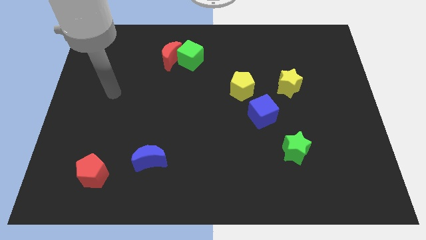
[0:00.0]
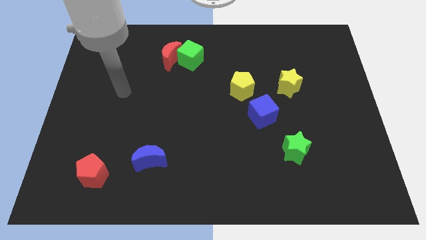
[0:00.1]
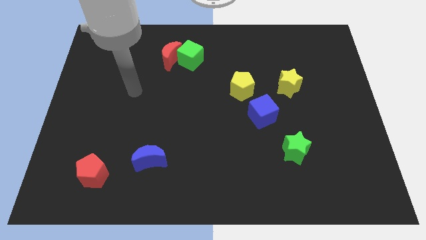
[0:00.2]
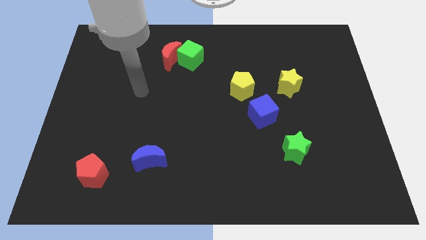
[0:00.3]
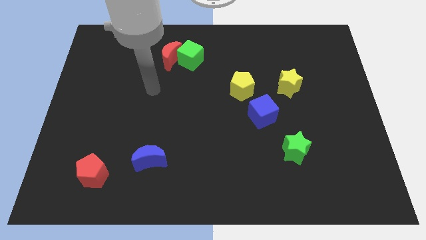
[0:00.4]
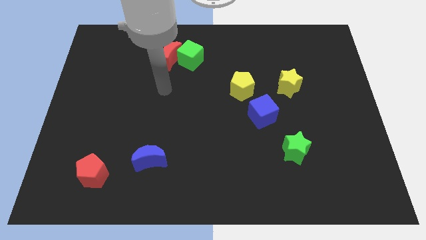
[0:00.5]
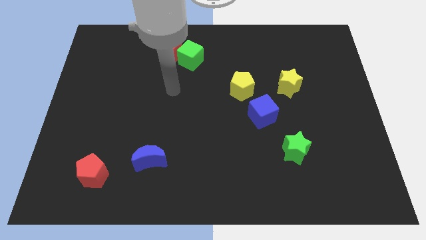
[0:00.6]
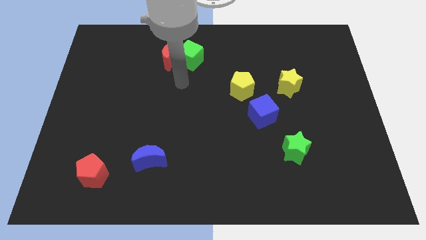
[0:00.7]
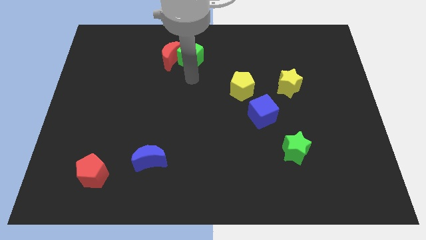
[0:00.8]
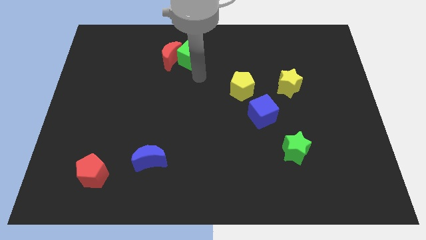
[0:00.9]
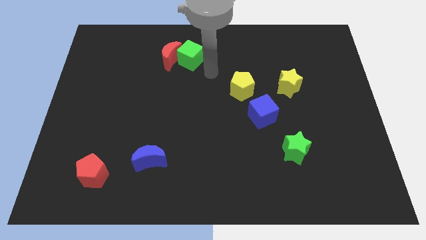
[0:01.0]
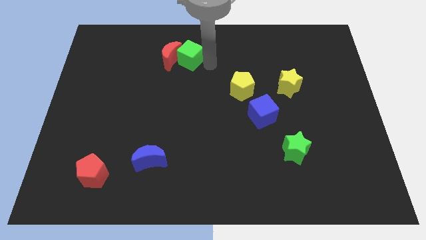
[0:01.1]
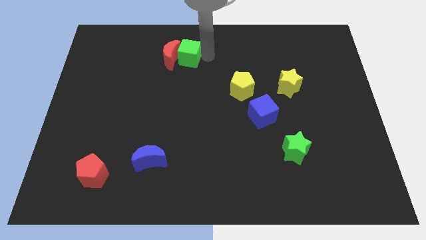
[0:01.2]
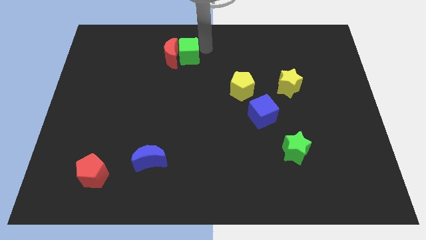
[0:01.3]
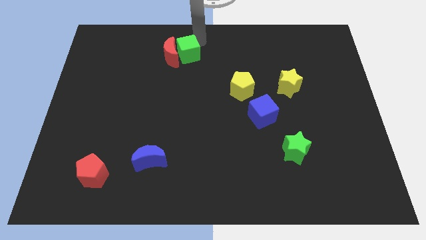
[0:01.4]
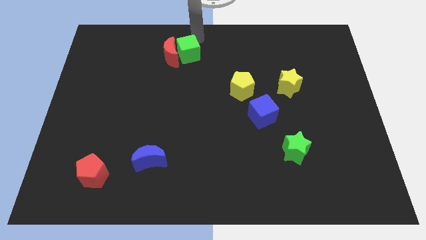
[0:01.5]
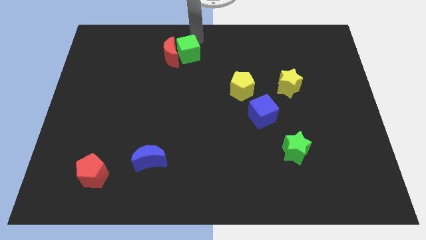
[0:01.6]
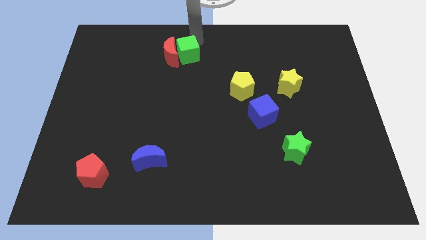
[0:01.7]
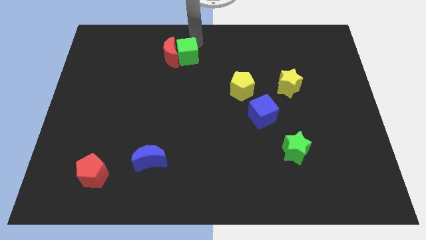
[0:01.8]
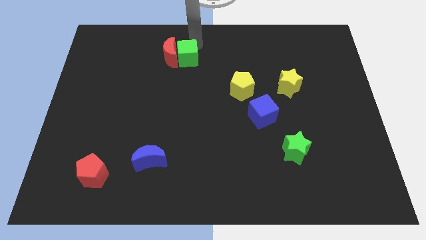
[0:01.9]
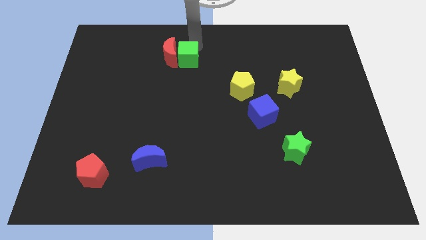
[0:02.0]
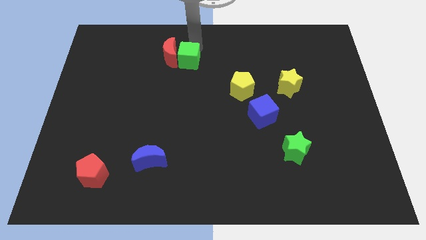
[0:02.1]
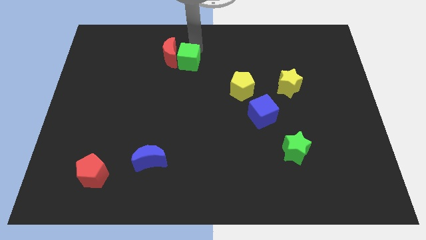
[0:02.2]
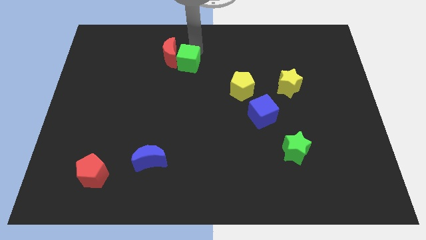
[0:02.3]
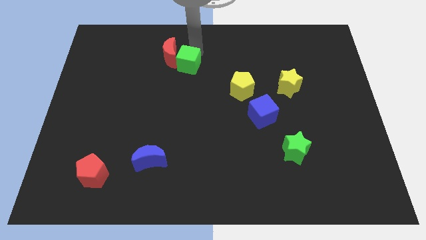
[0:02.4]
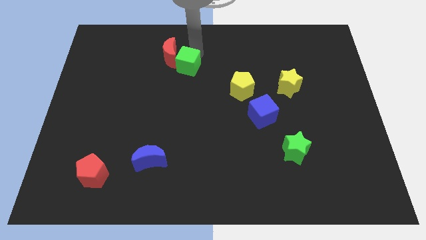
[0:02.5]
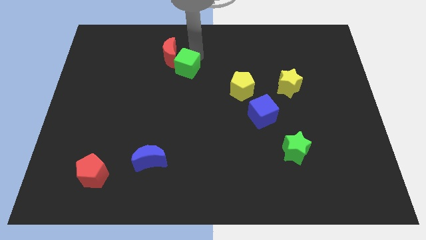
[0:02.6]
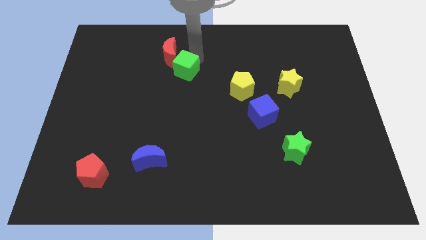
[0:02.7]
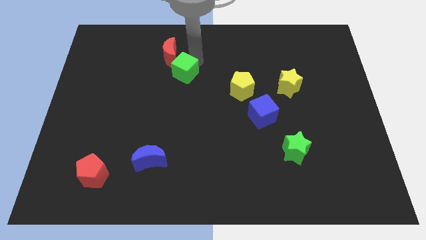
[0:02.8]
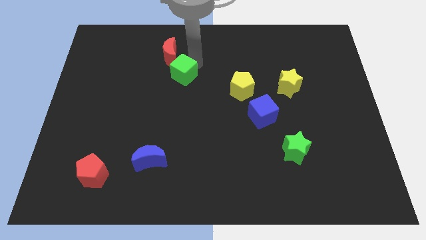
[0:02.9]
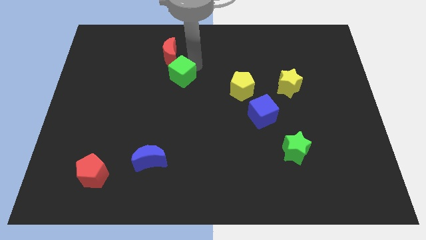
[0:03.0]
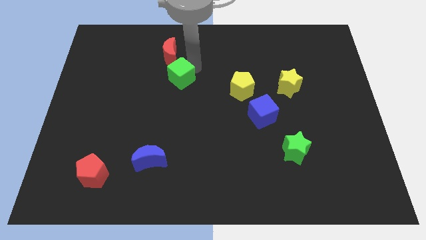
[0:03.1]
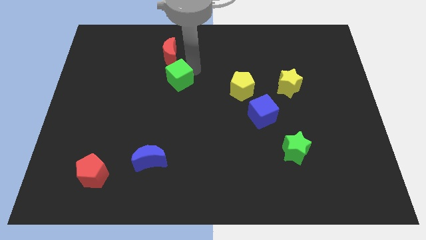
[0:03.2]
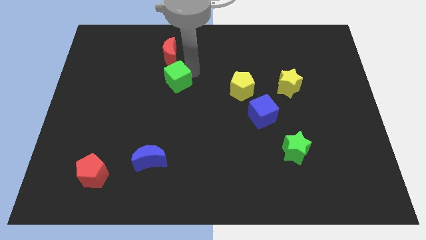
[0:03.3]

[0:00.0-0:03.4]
move the green cube a little bit down and then to the left

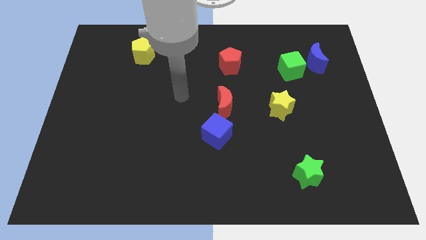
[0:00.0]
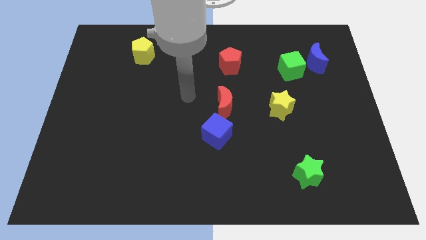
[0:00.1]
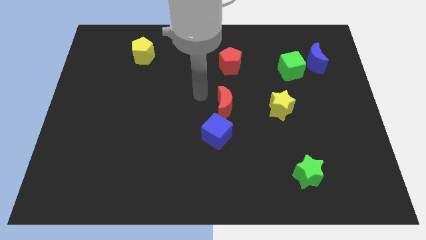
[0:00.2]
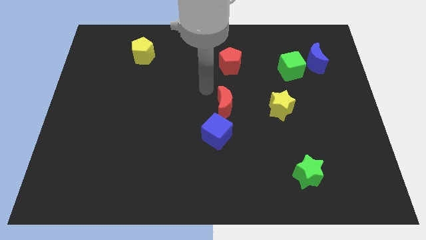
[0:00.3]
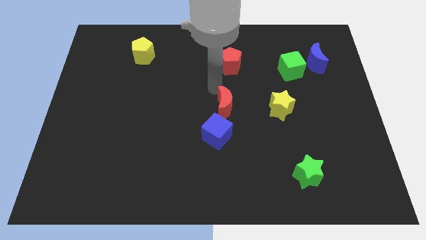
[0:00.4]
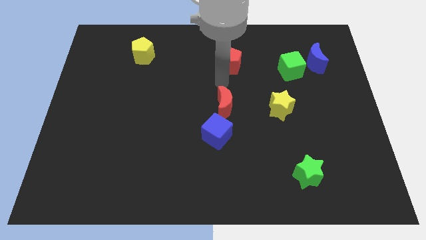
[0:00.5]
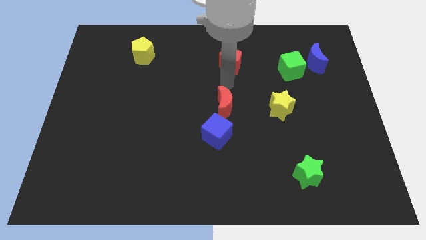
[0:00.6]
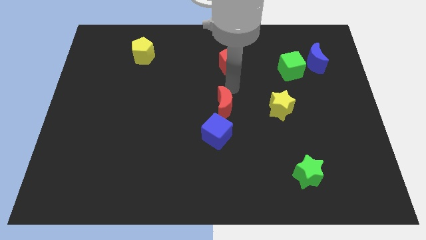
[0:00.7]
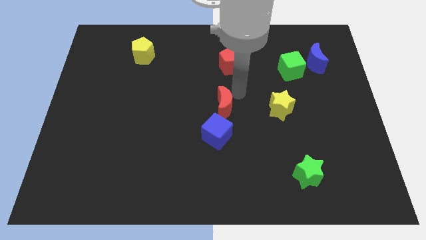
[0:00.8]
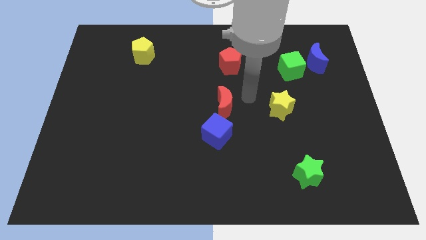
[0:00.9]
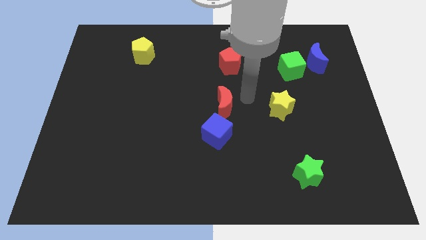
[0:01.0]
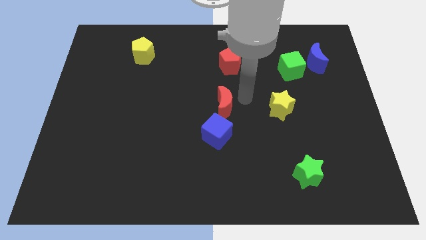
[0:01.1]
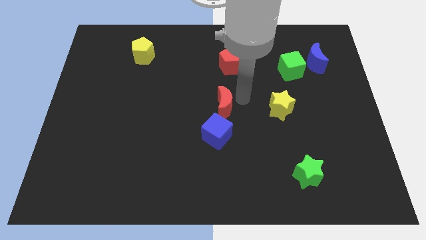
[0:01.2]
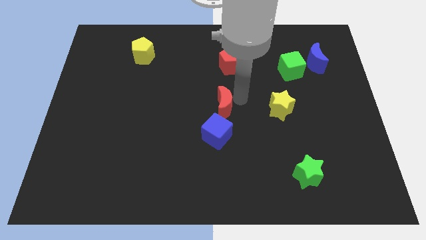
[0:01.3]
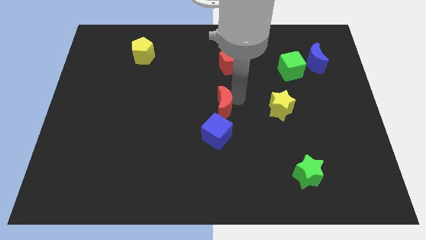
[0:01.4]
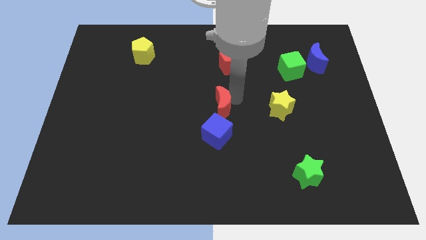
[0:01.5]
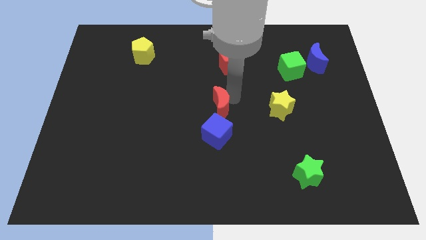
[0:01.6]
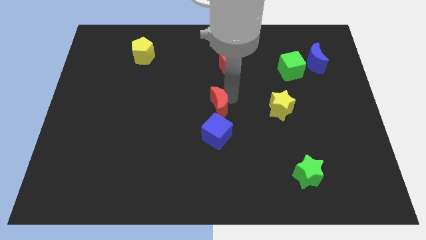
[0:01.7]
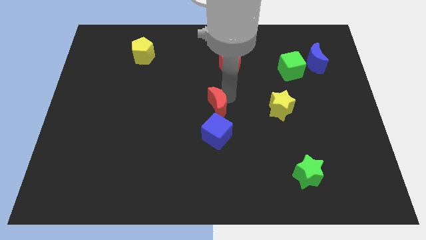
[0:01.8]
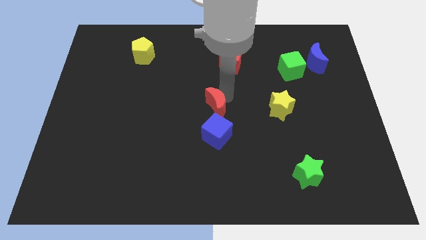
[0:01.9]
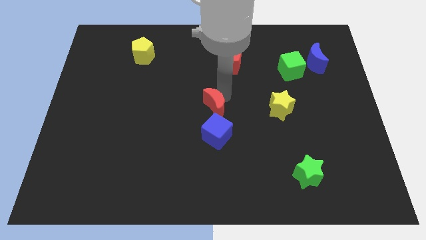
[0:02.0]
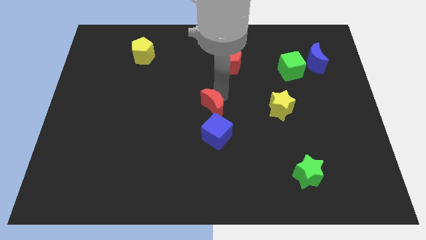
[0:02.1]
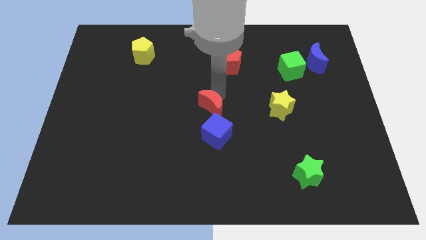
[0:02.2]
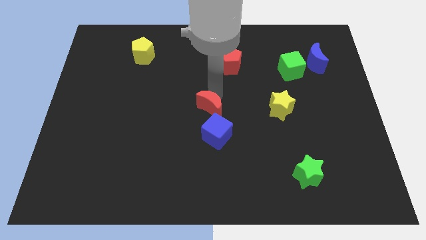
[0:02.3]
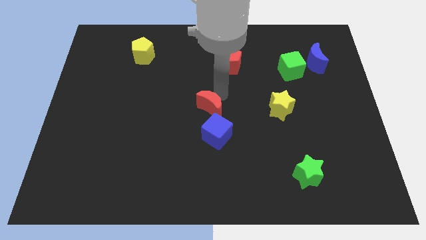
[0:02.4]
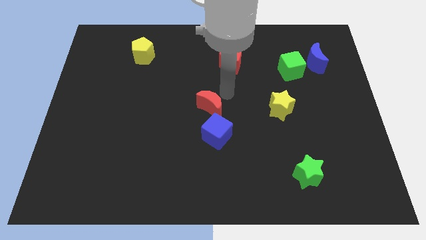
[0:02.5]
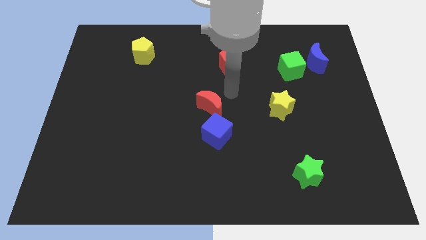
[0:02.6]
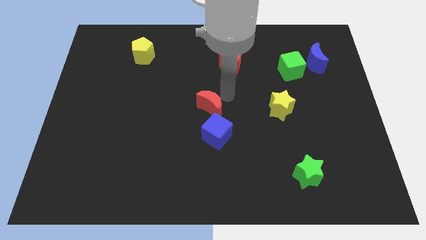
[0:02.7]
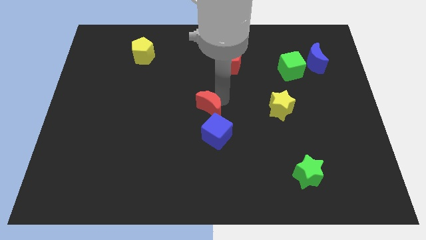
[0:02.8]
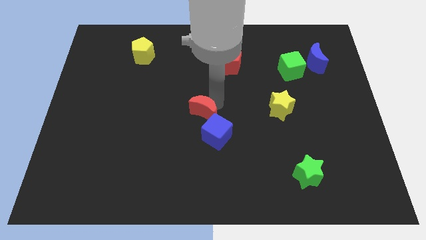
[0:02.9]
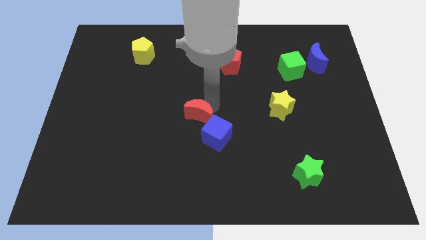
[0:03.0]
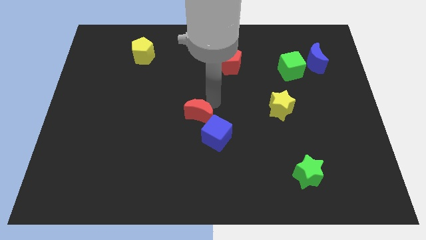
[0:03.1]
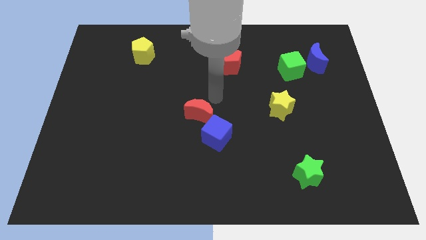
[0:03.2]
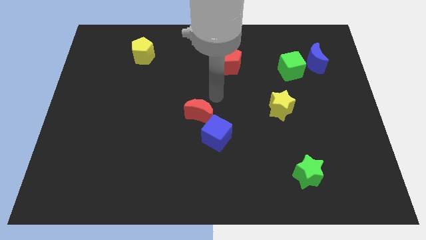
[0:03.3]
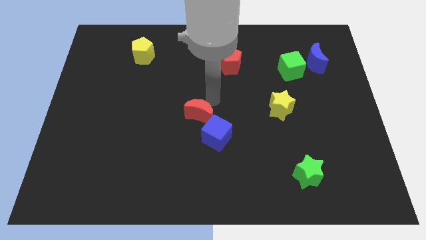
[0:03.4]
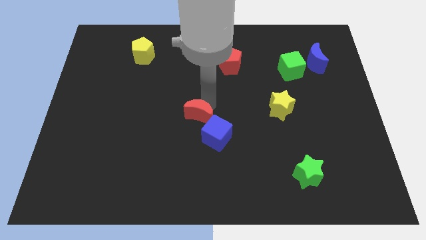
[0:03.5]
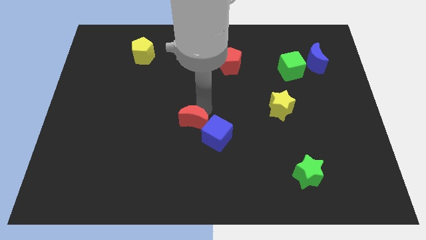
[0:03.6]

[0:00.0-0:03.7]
slightly slide the red moon downwards and to the left

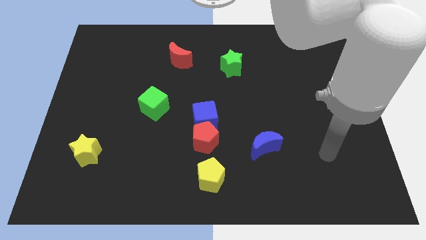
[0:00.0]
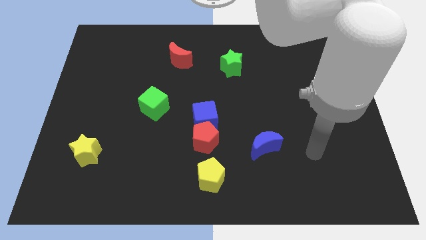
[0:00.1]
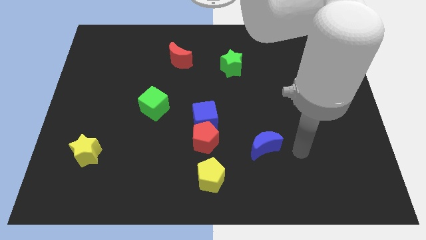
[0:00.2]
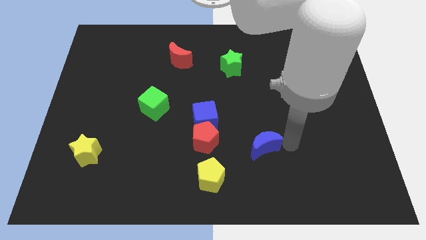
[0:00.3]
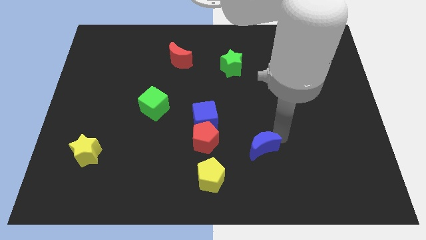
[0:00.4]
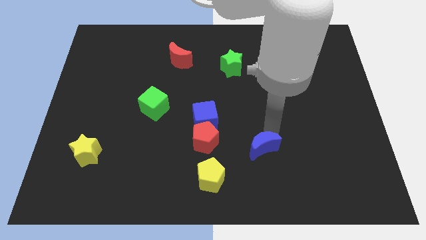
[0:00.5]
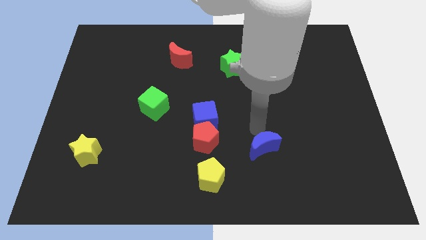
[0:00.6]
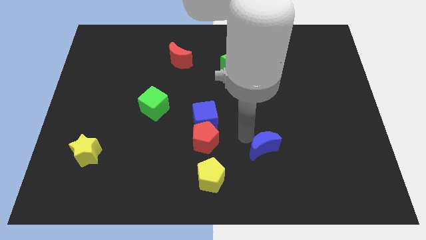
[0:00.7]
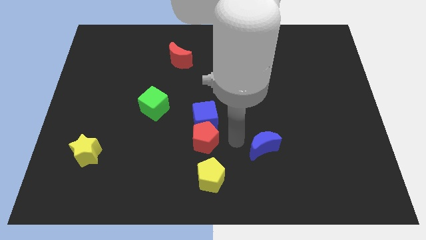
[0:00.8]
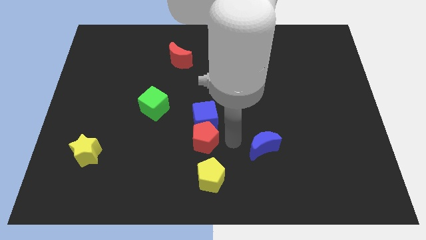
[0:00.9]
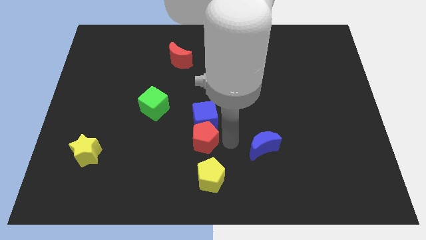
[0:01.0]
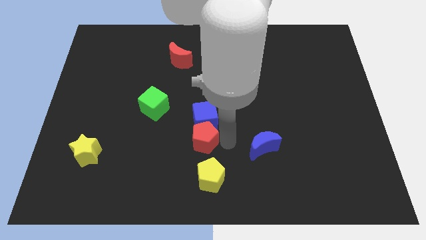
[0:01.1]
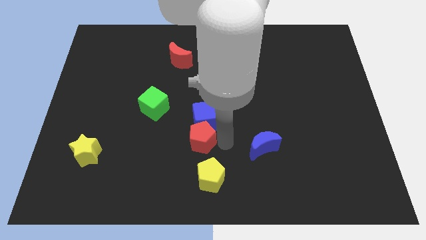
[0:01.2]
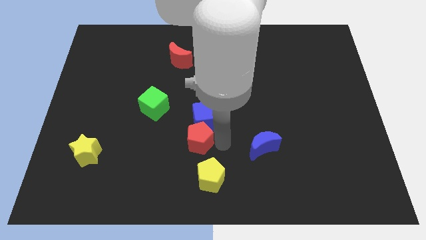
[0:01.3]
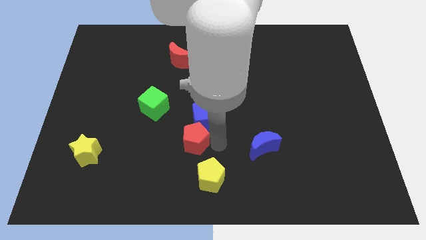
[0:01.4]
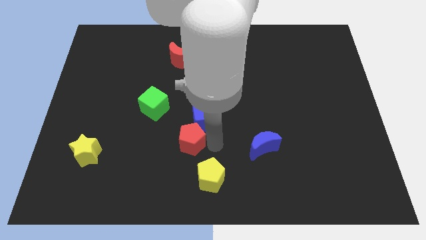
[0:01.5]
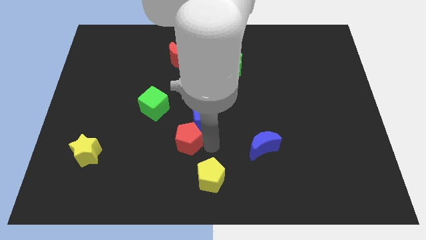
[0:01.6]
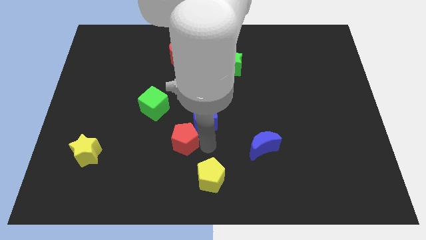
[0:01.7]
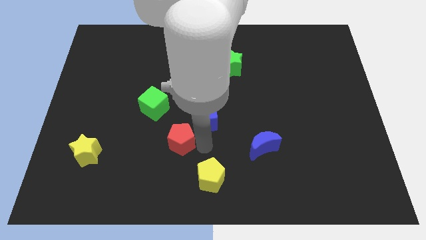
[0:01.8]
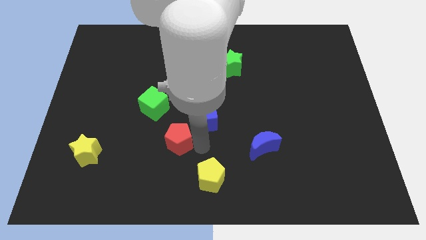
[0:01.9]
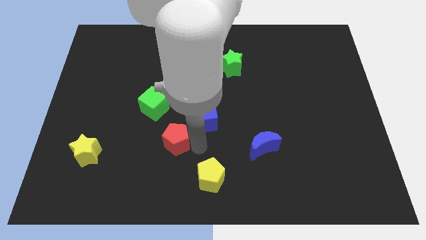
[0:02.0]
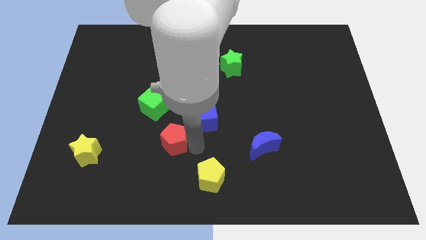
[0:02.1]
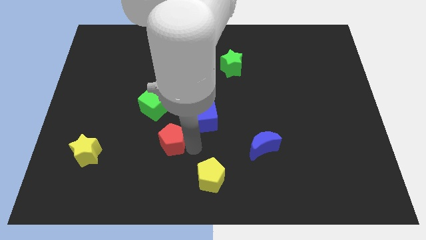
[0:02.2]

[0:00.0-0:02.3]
push the red pentagon a little bit to the left
